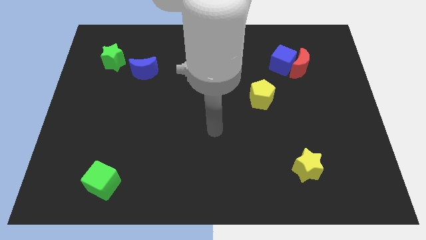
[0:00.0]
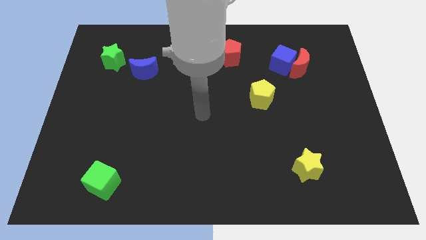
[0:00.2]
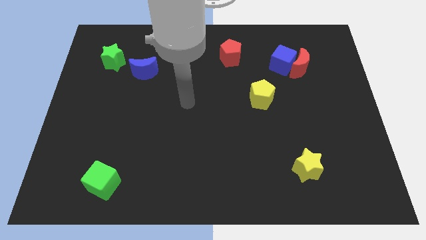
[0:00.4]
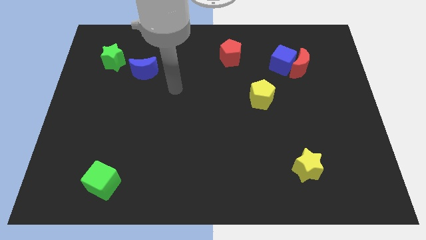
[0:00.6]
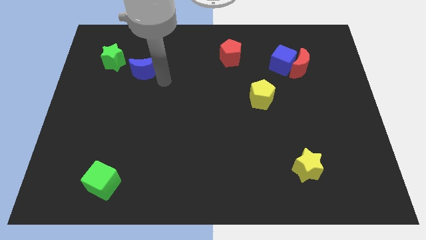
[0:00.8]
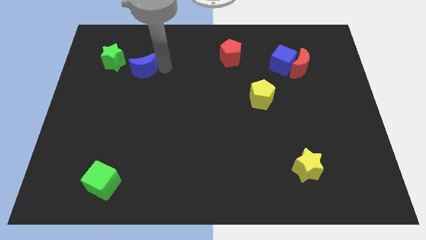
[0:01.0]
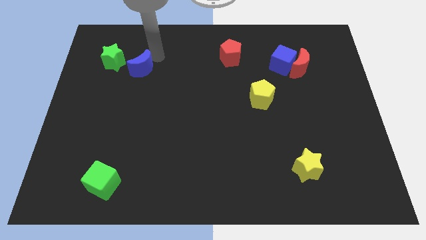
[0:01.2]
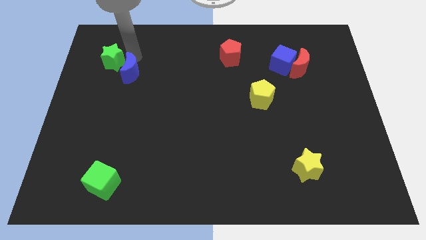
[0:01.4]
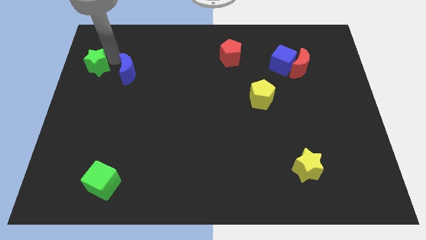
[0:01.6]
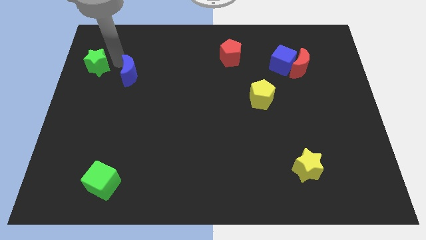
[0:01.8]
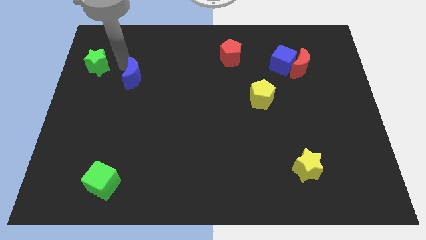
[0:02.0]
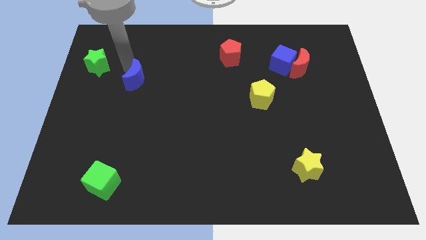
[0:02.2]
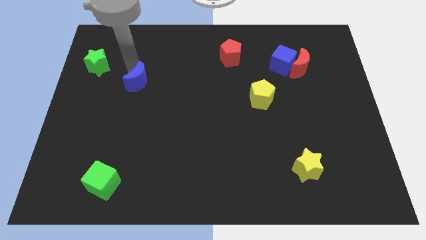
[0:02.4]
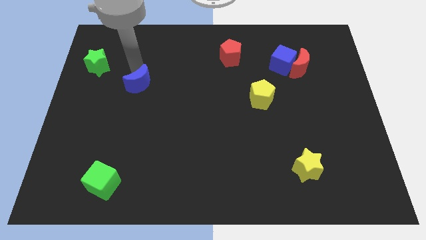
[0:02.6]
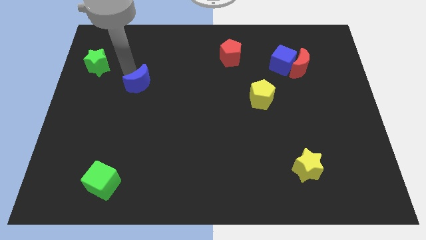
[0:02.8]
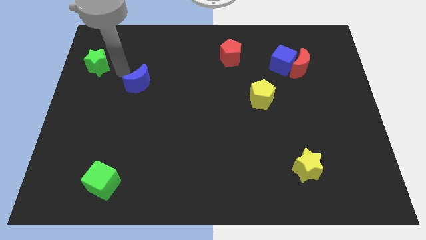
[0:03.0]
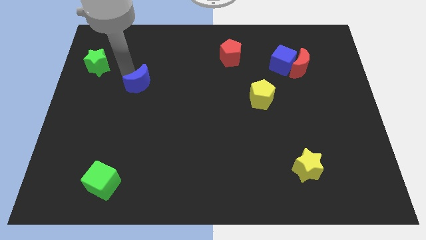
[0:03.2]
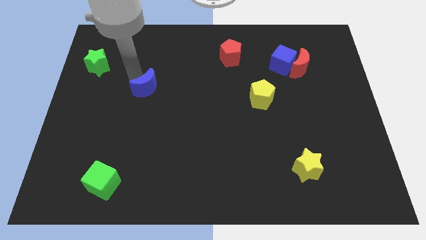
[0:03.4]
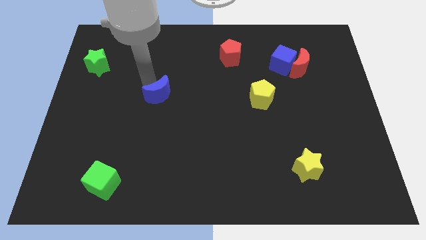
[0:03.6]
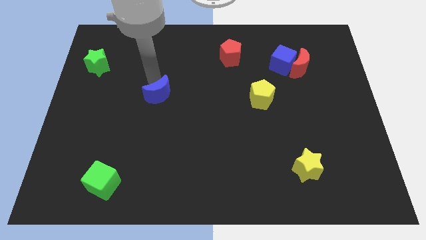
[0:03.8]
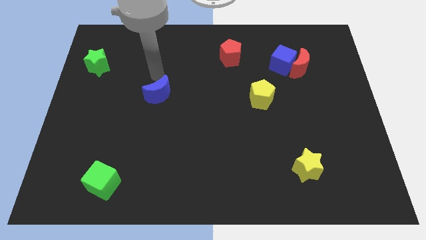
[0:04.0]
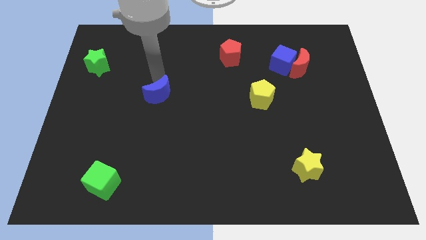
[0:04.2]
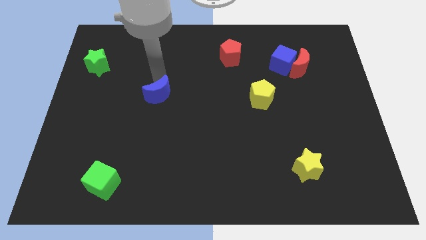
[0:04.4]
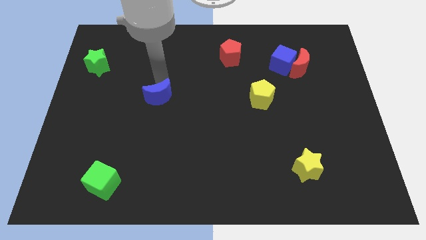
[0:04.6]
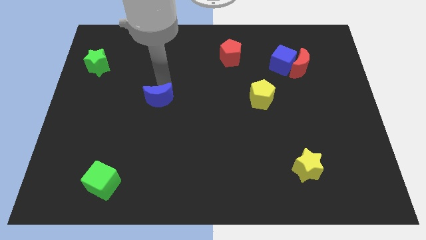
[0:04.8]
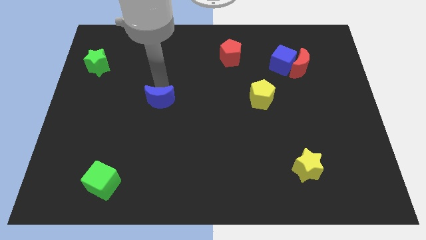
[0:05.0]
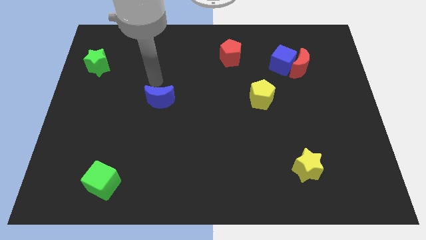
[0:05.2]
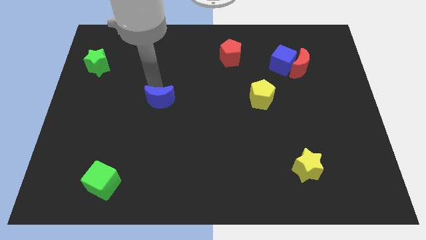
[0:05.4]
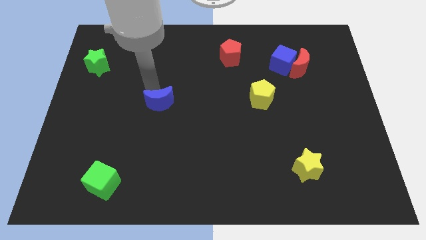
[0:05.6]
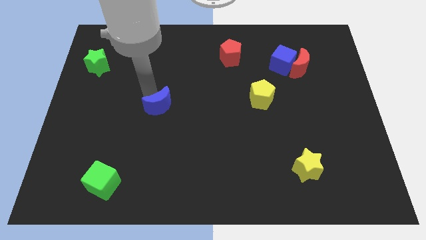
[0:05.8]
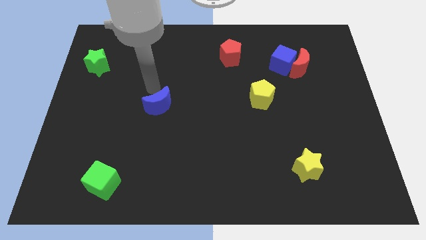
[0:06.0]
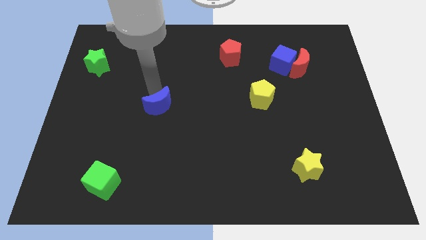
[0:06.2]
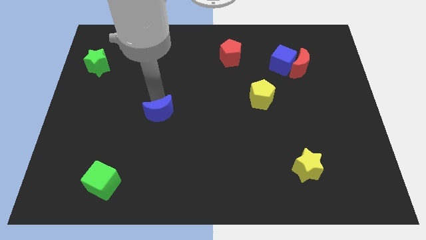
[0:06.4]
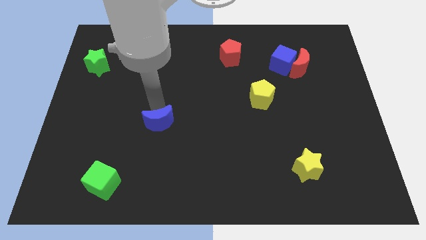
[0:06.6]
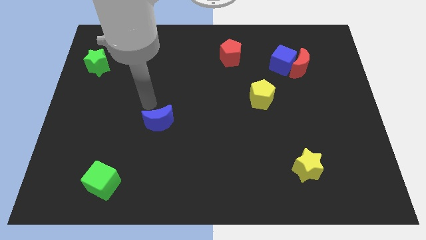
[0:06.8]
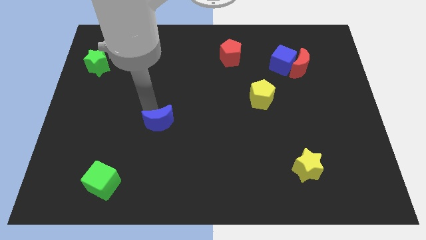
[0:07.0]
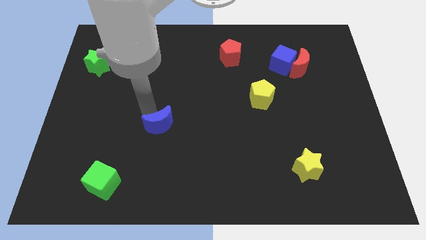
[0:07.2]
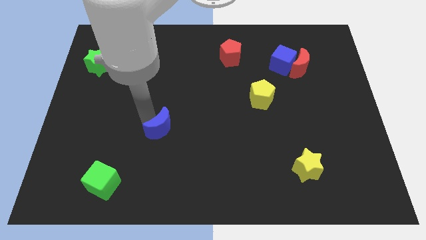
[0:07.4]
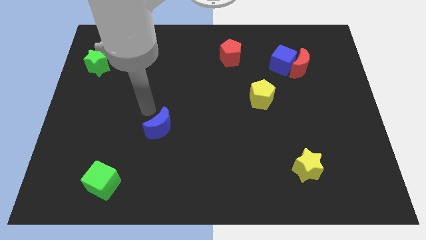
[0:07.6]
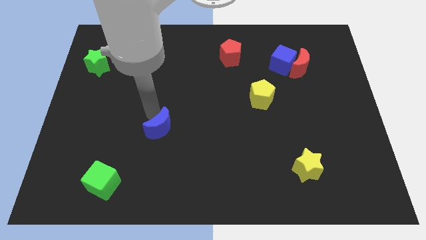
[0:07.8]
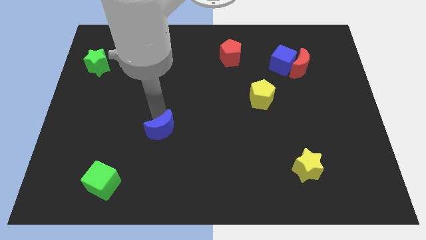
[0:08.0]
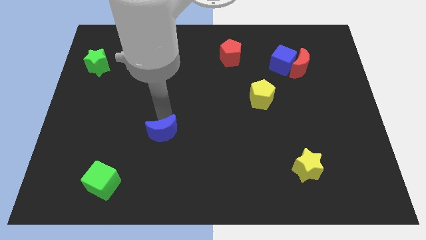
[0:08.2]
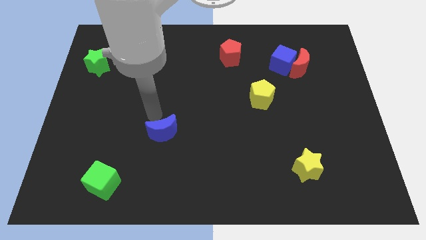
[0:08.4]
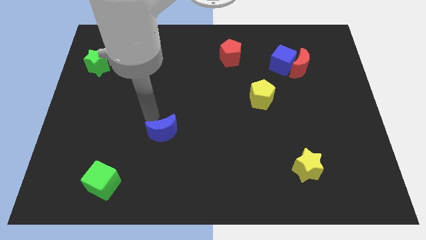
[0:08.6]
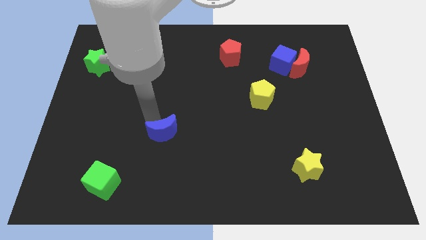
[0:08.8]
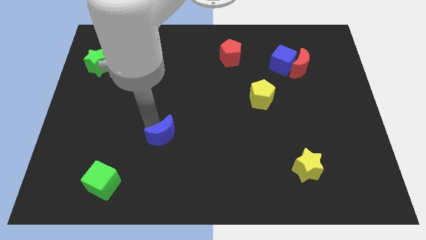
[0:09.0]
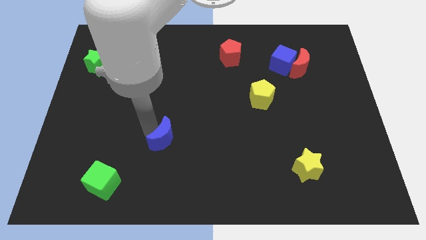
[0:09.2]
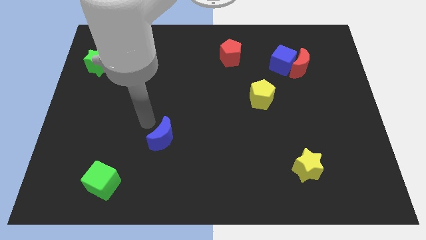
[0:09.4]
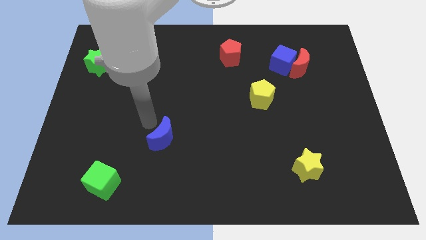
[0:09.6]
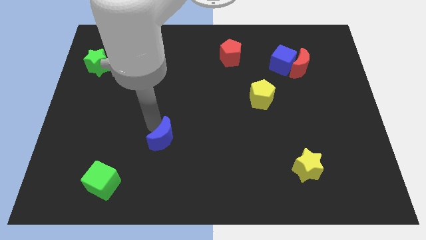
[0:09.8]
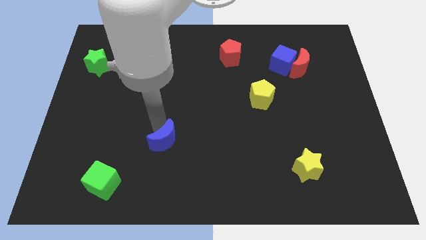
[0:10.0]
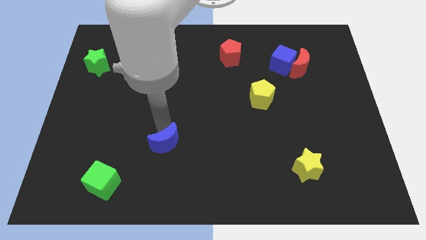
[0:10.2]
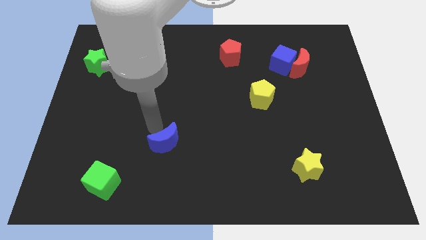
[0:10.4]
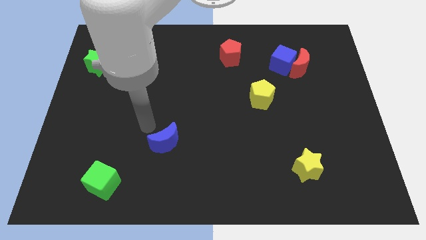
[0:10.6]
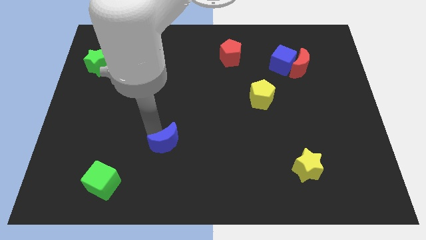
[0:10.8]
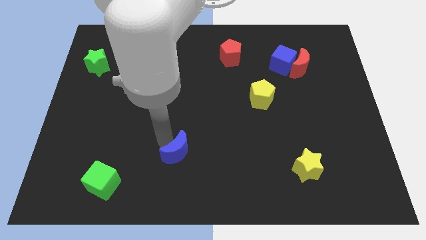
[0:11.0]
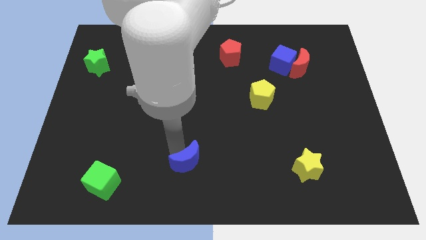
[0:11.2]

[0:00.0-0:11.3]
move the blue moon to the bottom side

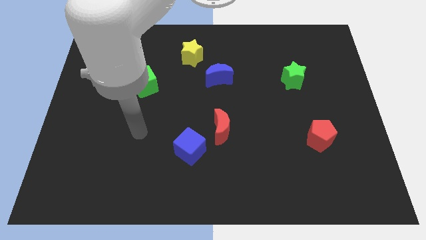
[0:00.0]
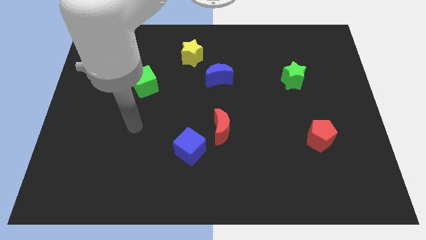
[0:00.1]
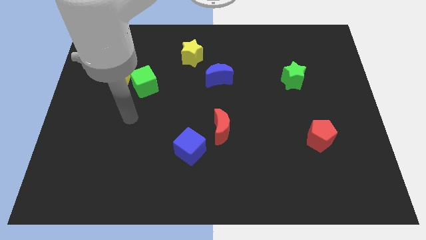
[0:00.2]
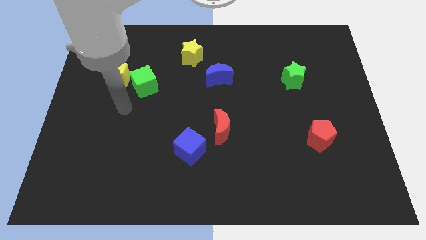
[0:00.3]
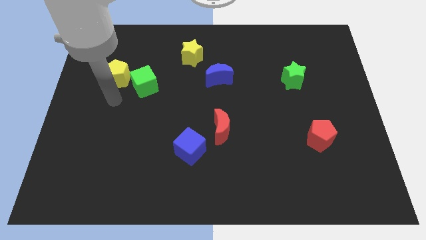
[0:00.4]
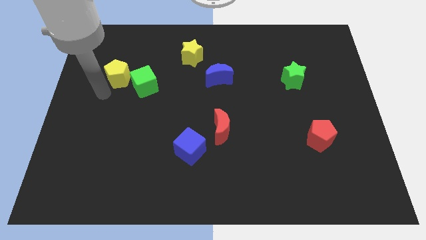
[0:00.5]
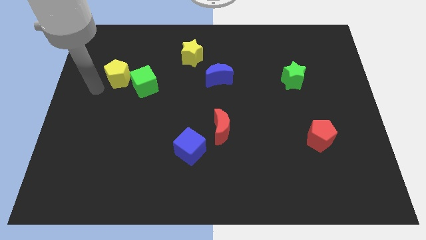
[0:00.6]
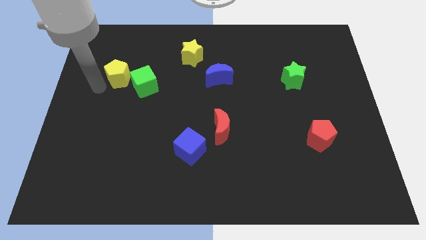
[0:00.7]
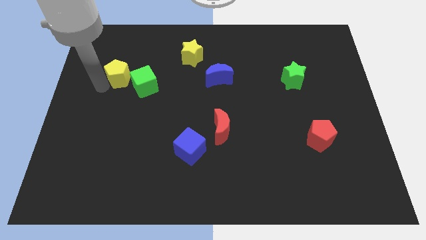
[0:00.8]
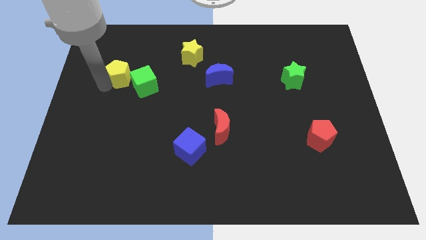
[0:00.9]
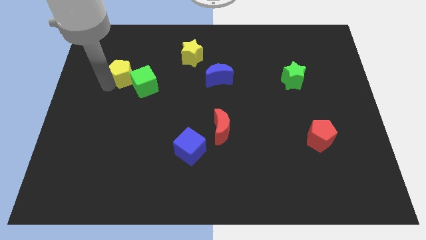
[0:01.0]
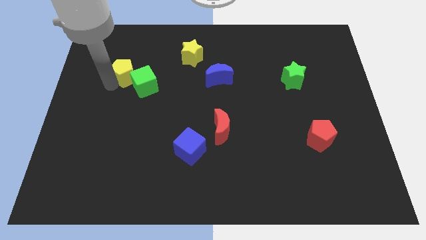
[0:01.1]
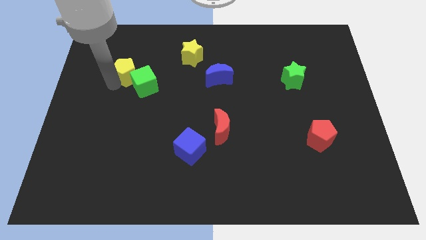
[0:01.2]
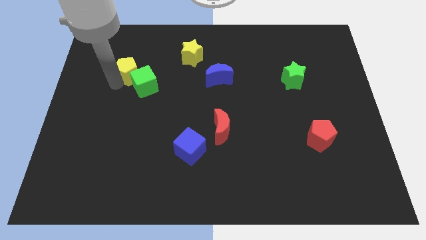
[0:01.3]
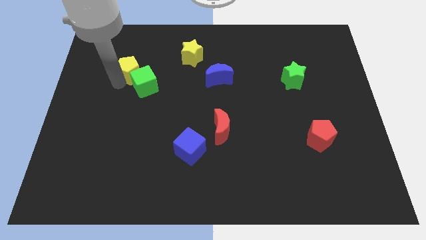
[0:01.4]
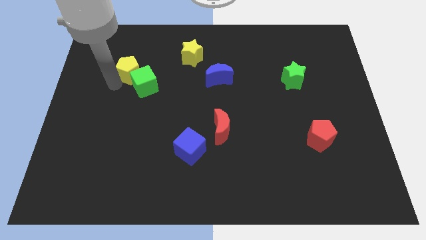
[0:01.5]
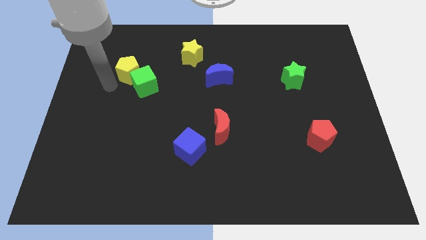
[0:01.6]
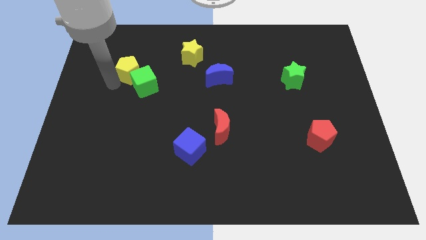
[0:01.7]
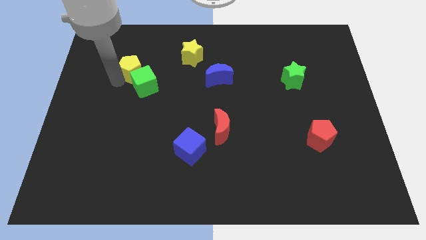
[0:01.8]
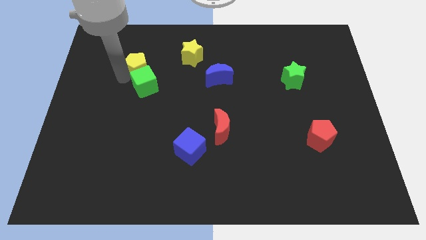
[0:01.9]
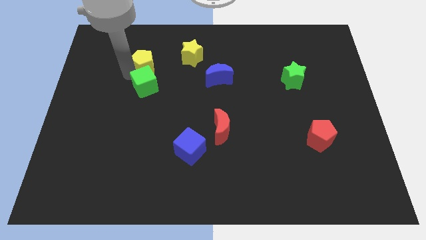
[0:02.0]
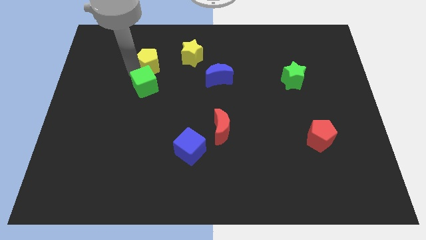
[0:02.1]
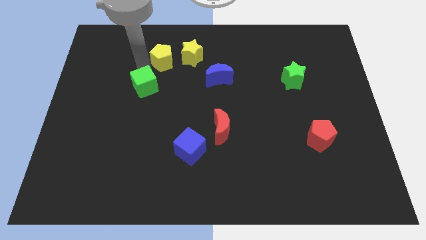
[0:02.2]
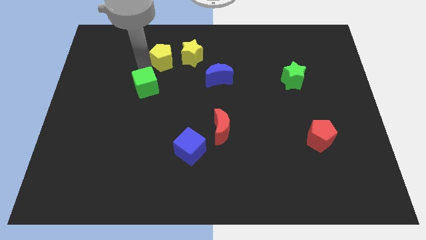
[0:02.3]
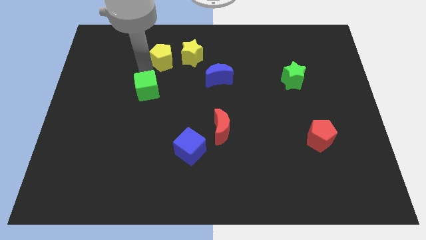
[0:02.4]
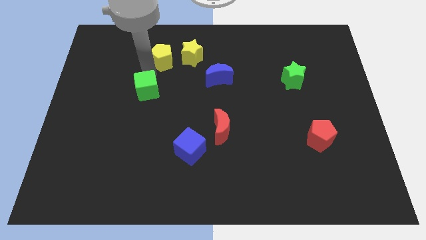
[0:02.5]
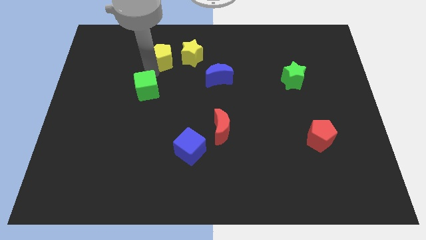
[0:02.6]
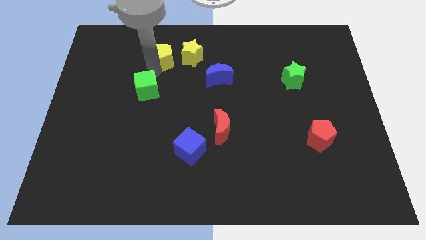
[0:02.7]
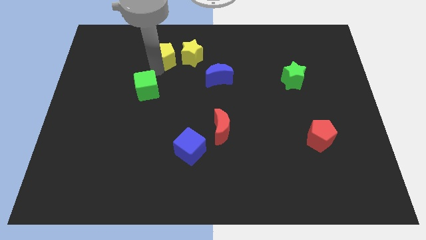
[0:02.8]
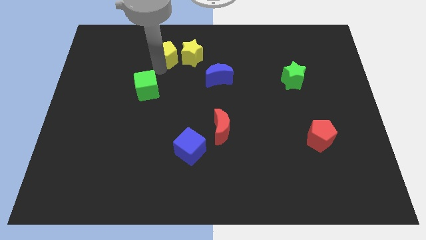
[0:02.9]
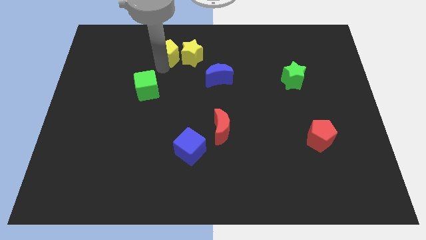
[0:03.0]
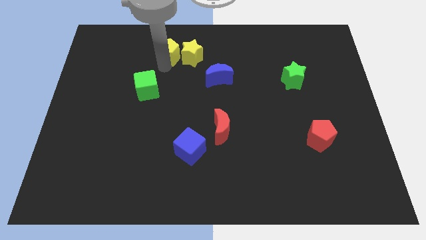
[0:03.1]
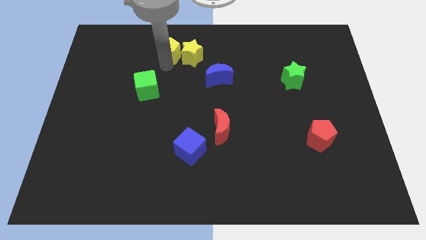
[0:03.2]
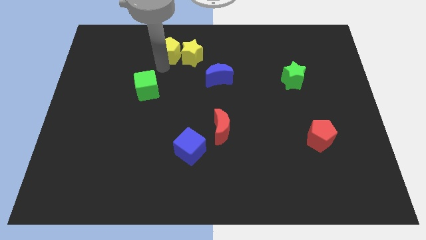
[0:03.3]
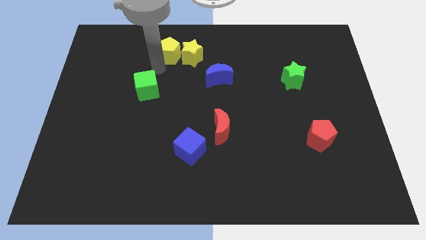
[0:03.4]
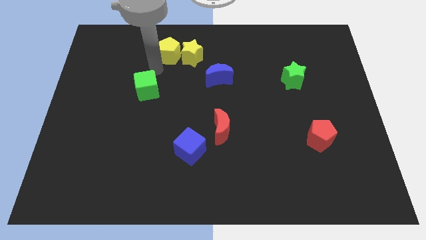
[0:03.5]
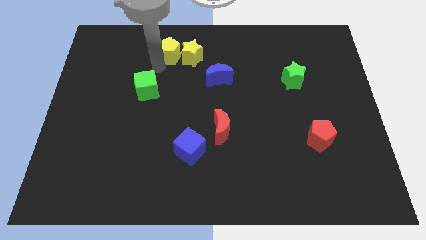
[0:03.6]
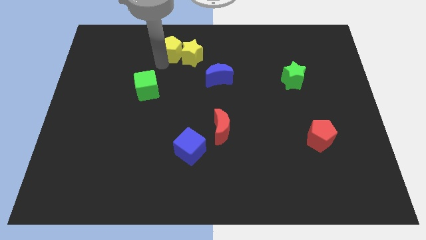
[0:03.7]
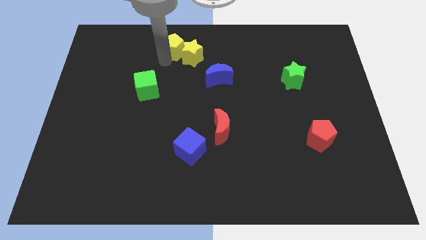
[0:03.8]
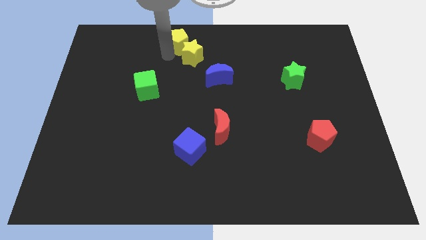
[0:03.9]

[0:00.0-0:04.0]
push the yellow pentagon to the towards your base
